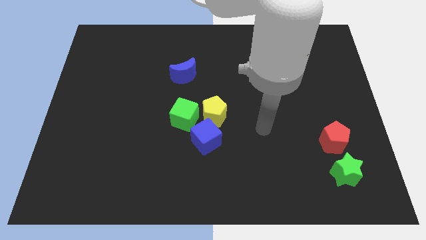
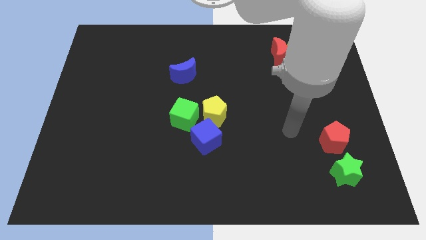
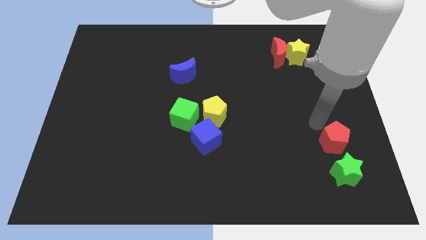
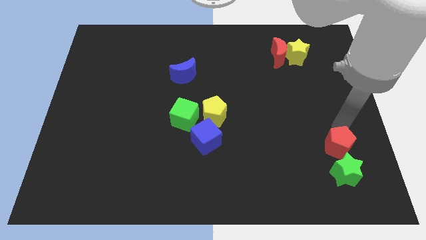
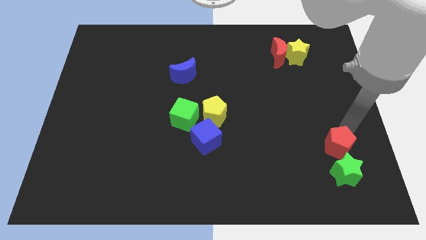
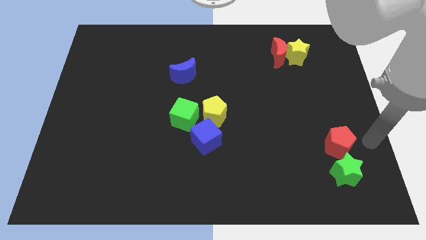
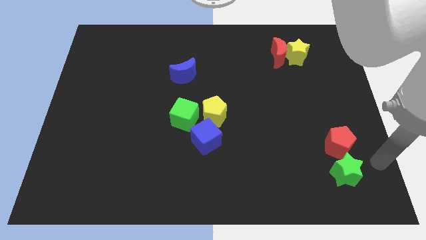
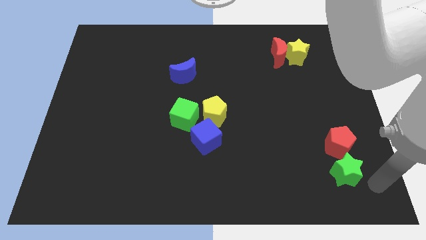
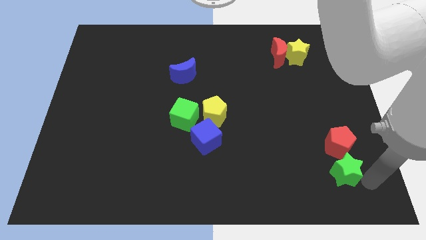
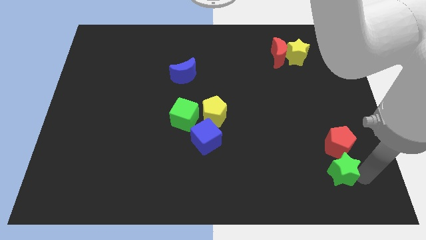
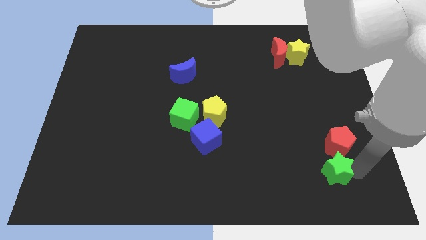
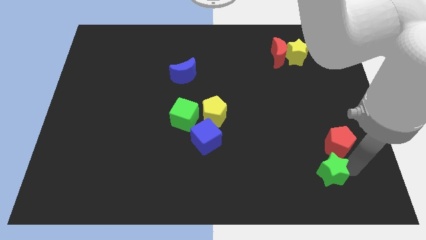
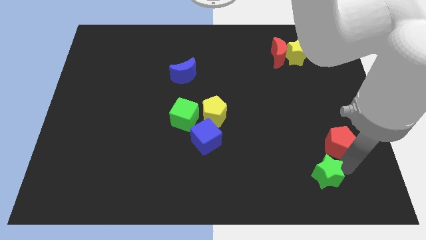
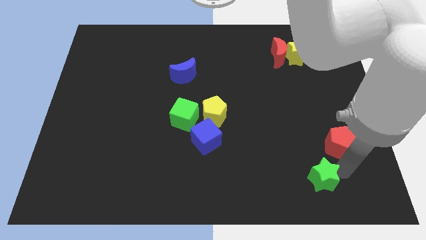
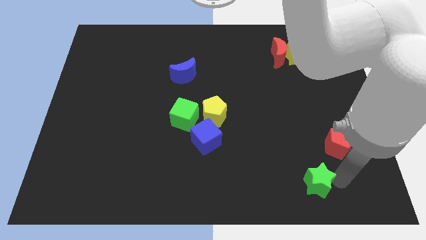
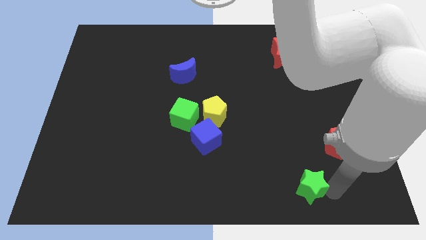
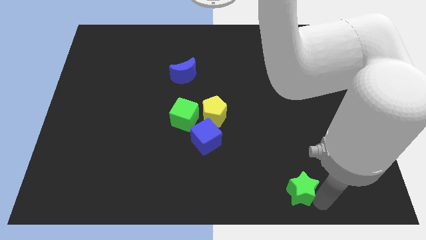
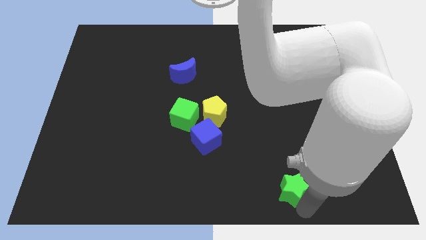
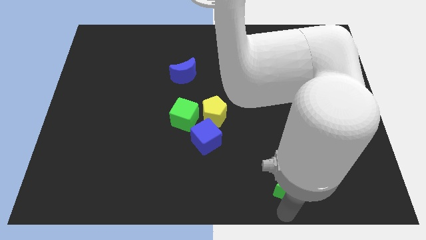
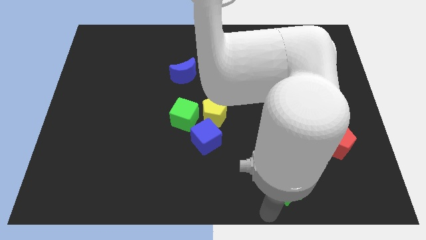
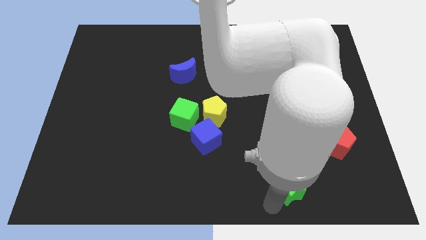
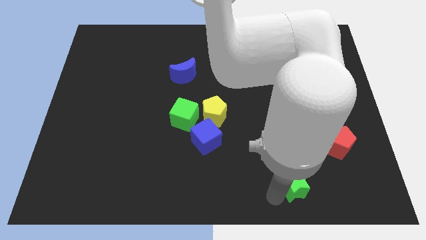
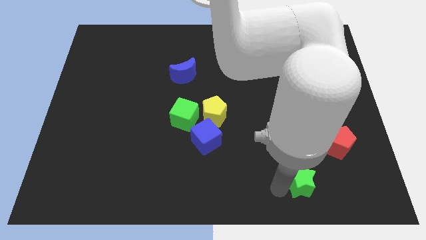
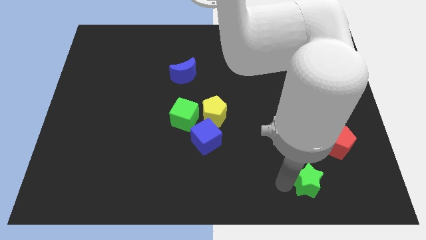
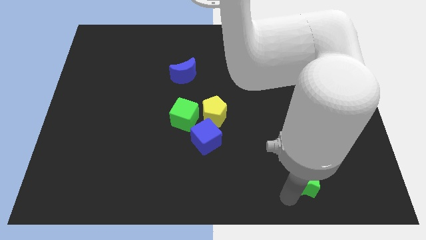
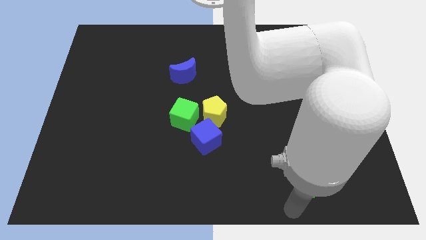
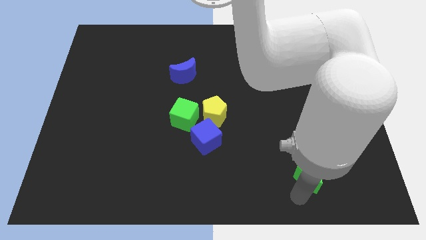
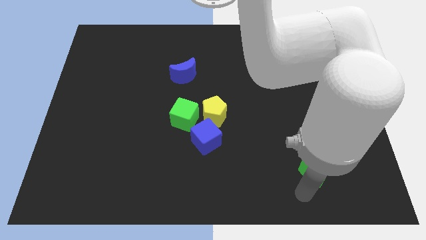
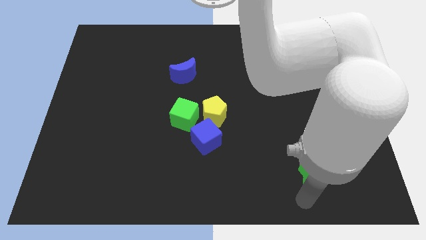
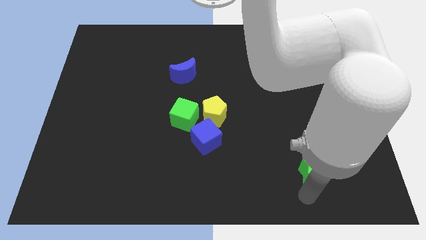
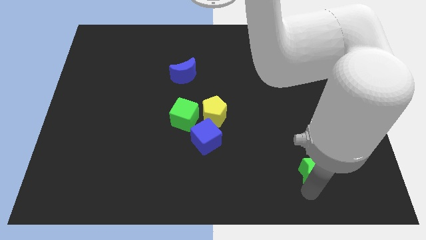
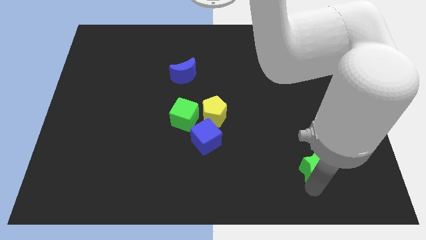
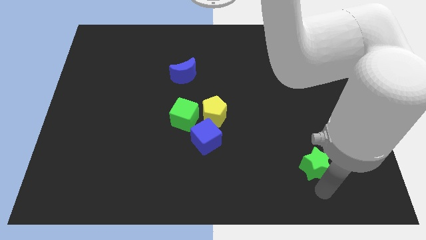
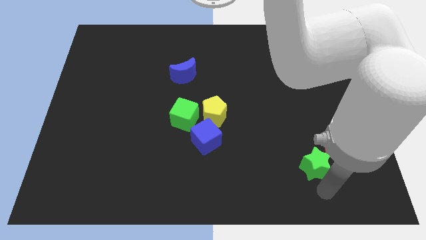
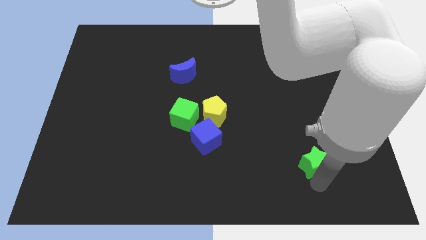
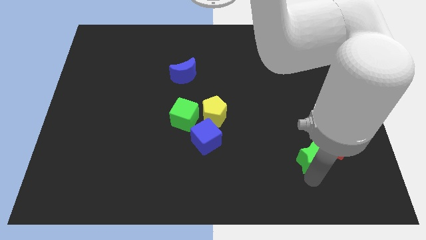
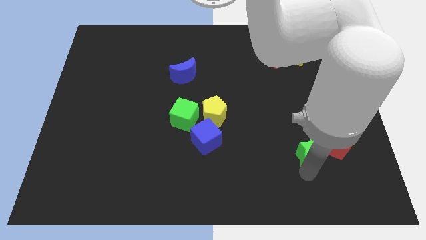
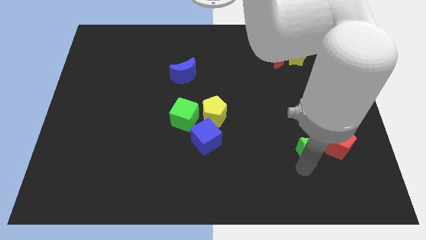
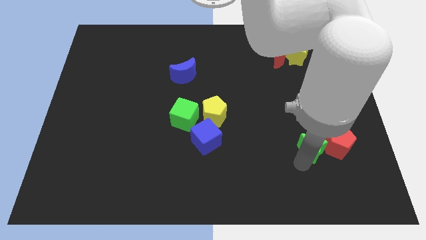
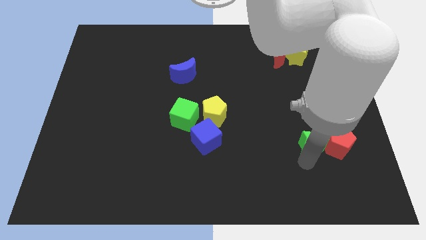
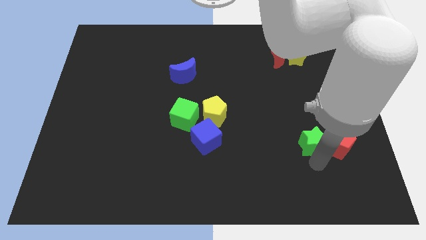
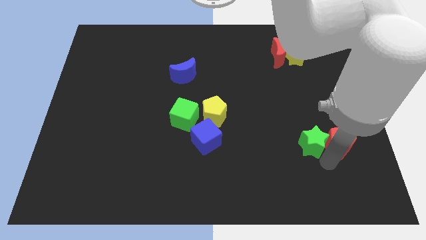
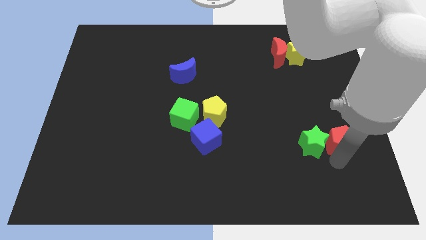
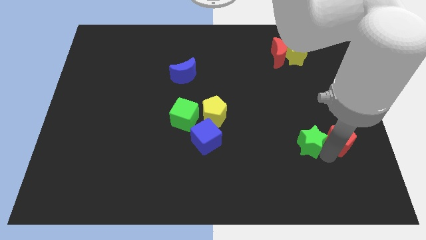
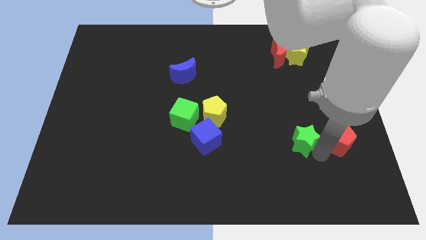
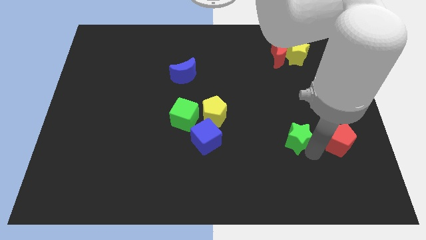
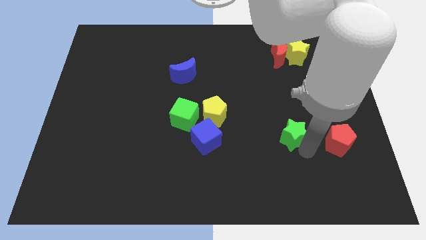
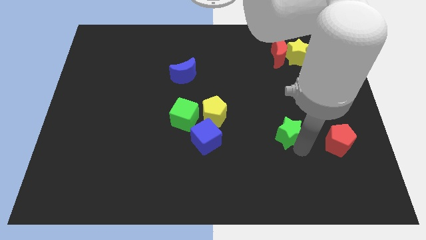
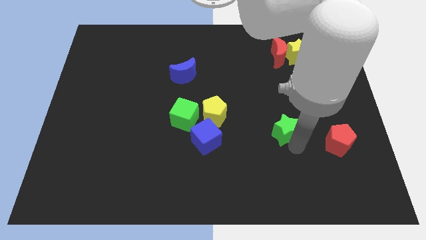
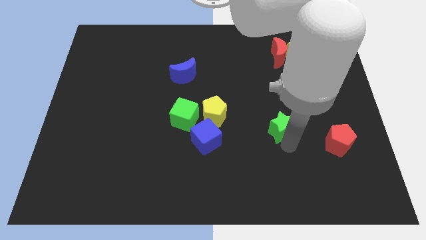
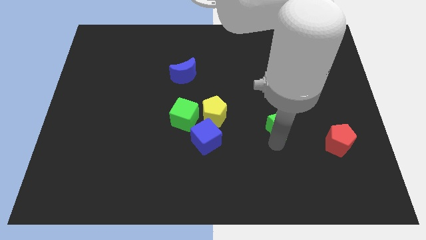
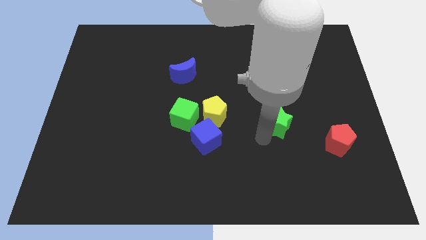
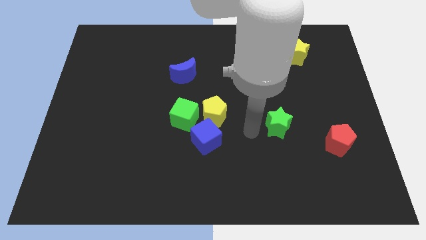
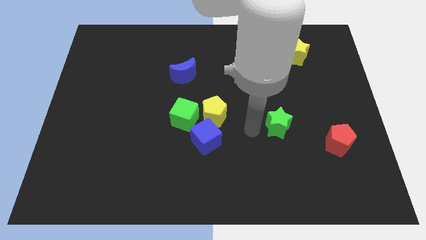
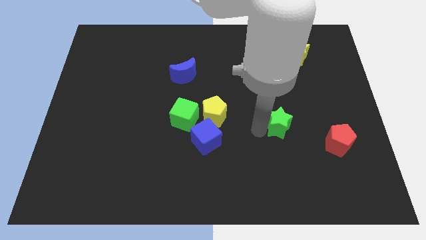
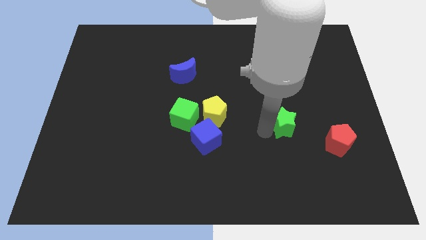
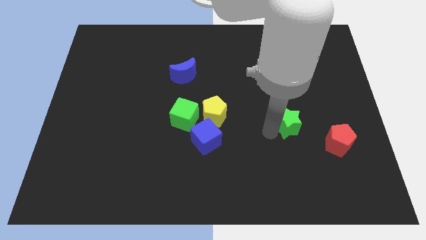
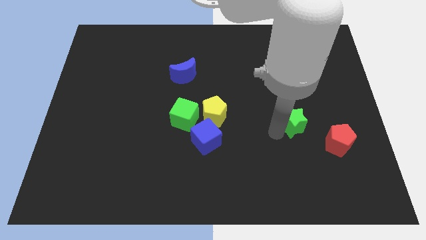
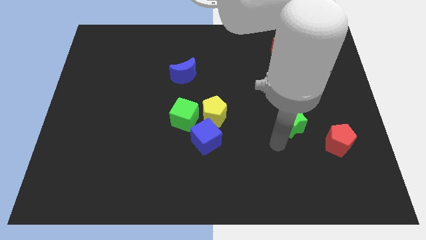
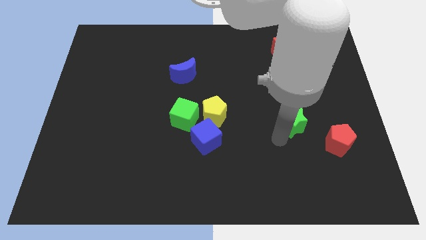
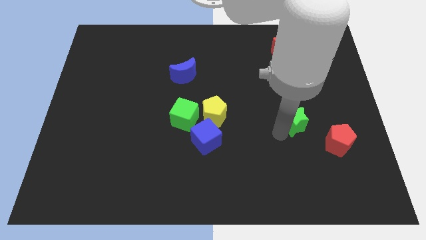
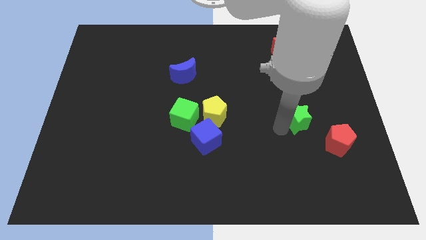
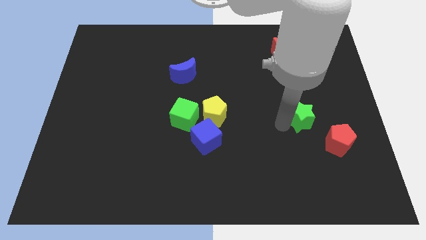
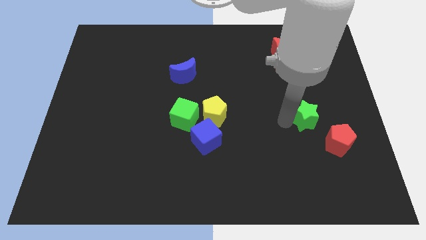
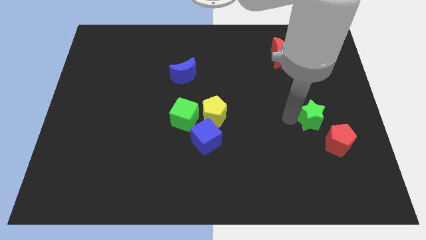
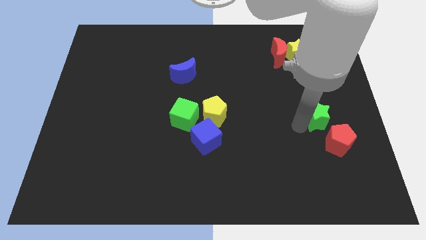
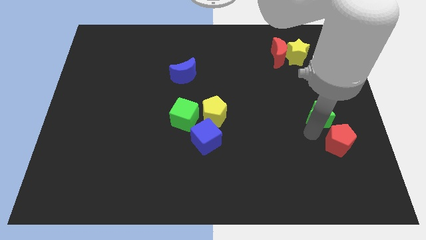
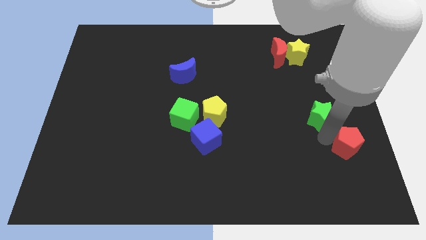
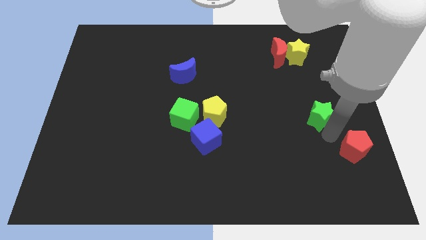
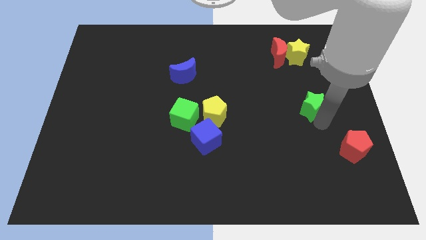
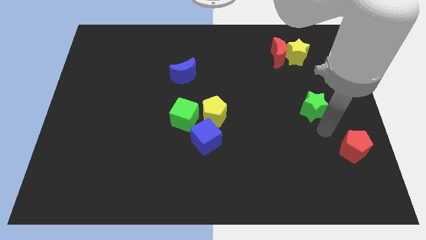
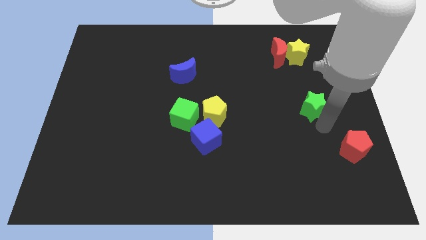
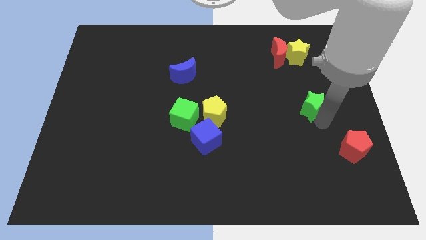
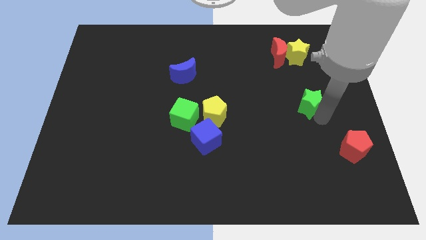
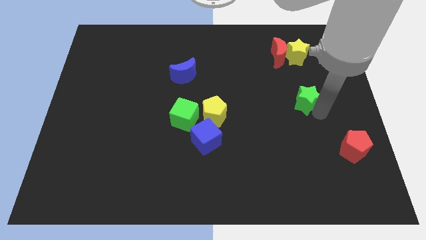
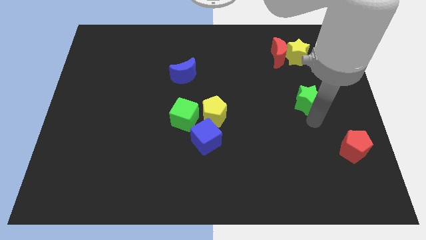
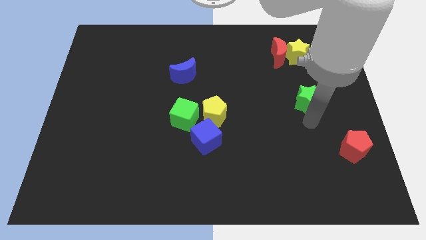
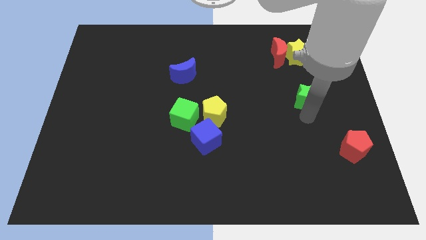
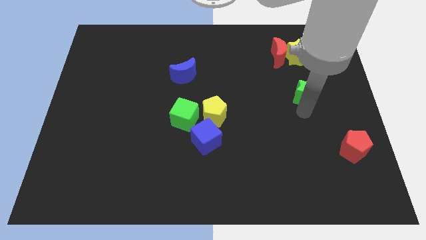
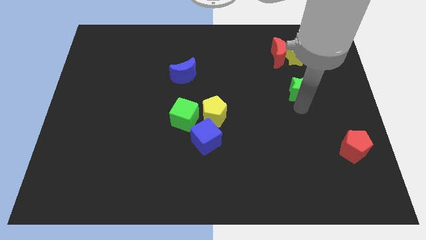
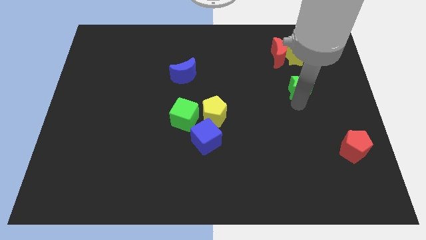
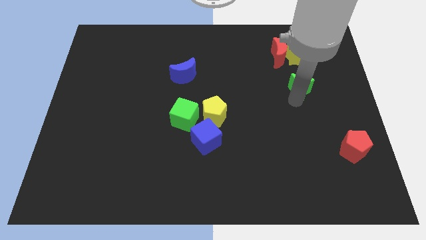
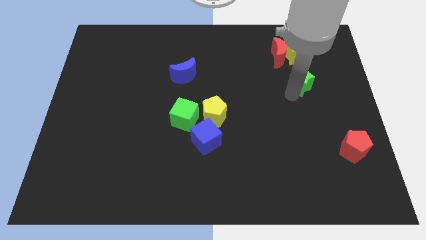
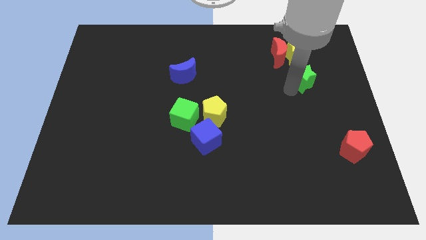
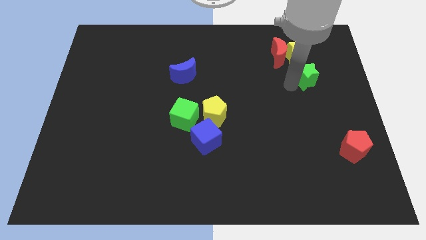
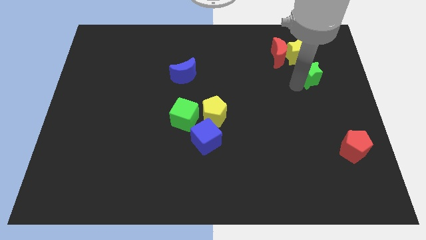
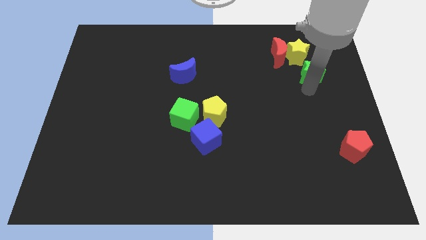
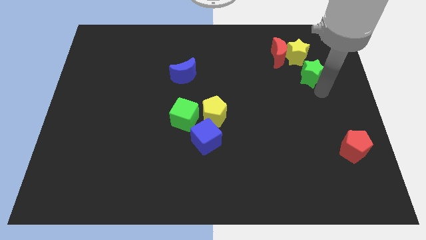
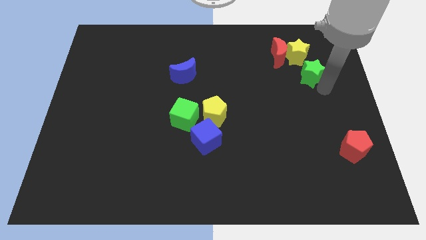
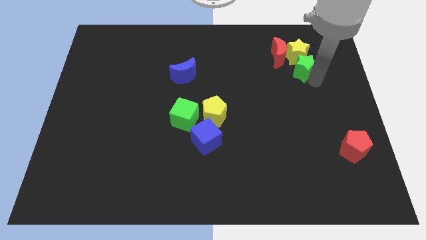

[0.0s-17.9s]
slide the green star next to the yellow star
